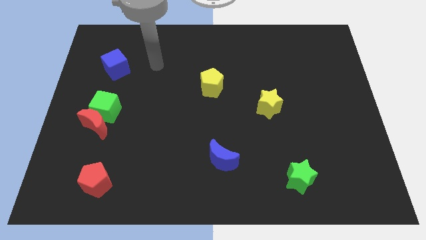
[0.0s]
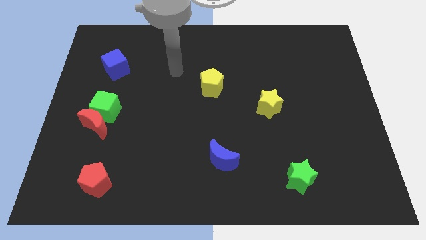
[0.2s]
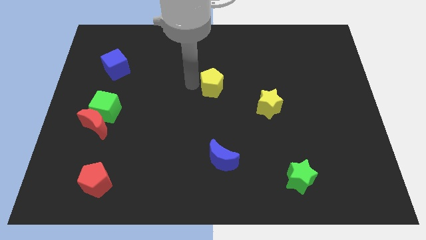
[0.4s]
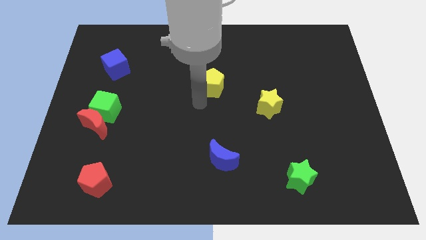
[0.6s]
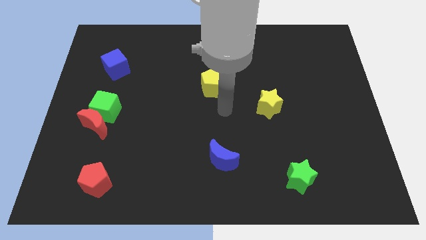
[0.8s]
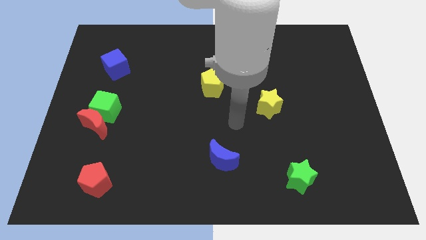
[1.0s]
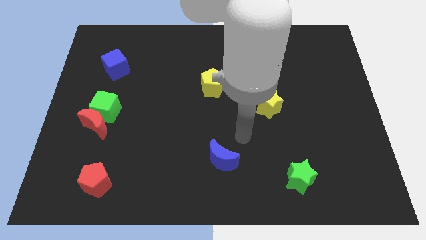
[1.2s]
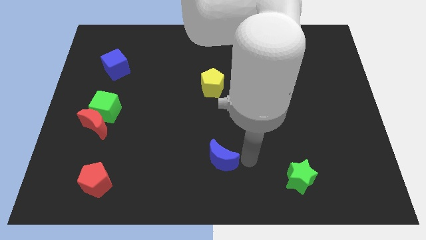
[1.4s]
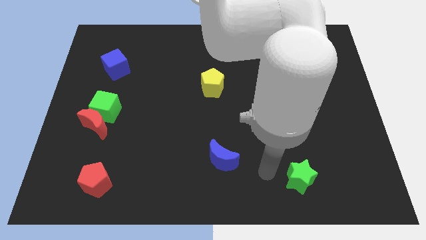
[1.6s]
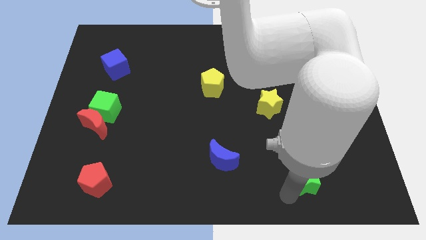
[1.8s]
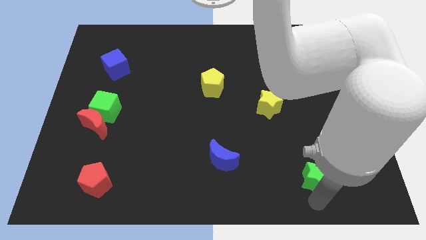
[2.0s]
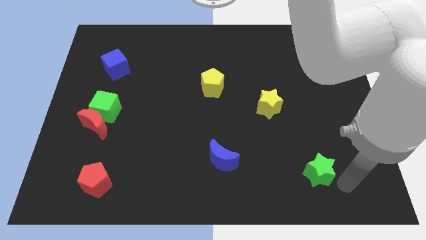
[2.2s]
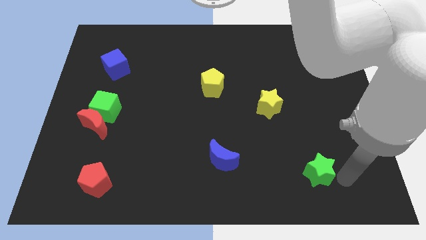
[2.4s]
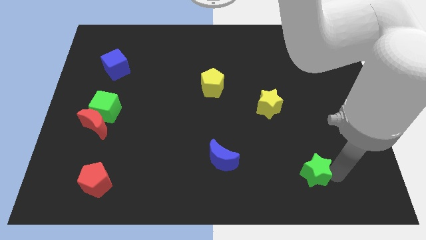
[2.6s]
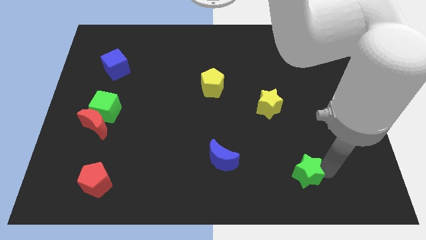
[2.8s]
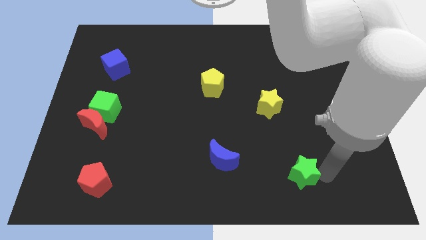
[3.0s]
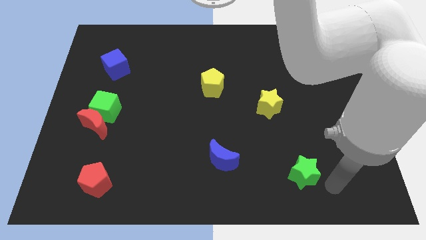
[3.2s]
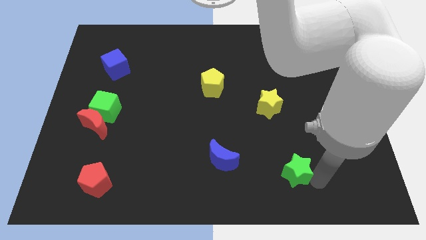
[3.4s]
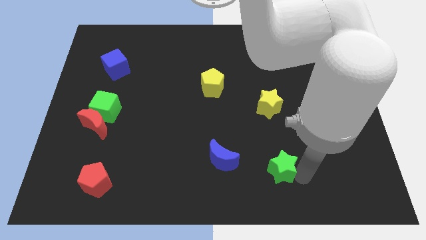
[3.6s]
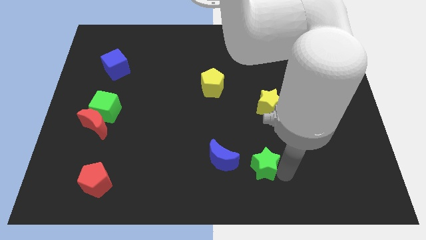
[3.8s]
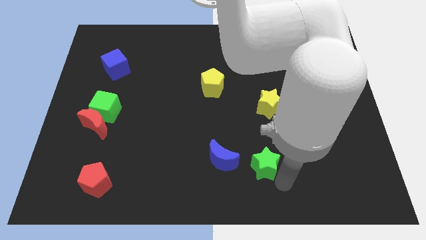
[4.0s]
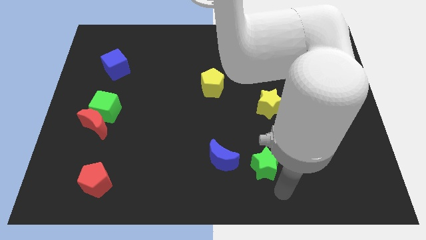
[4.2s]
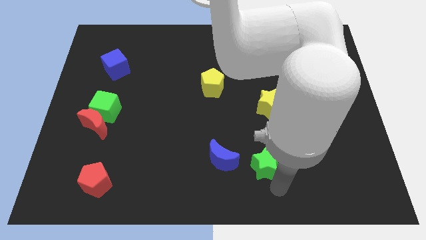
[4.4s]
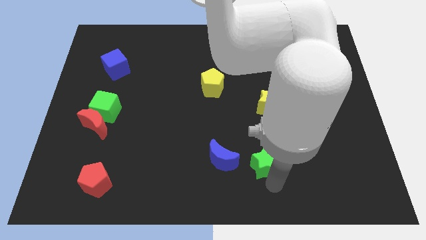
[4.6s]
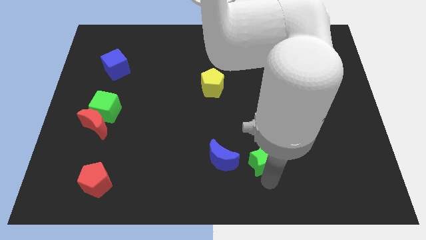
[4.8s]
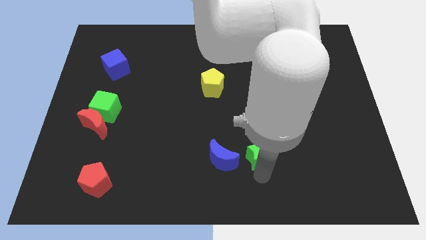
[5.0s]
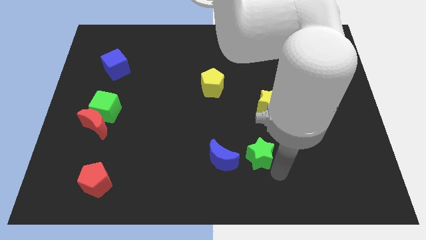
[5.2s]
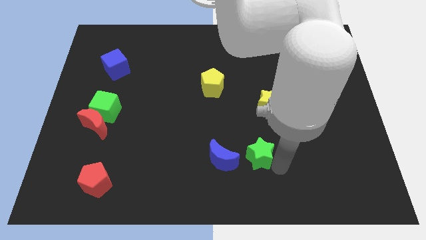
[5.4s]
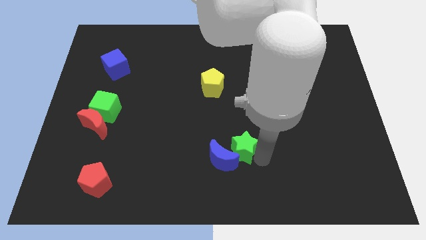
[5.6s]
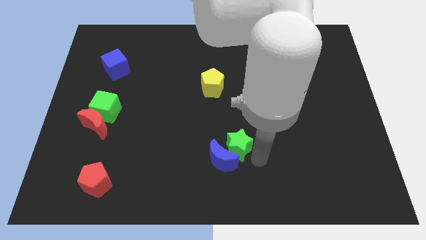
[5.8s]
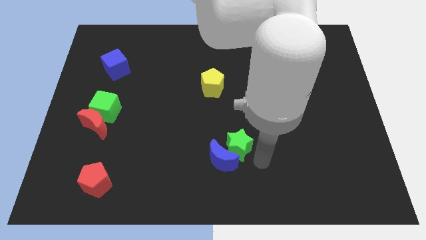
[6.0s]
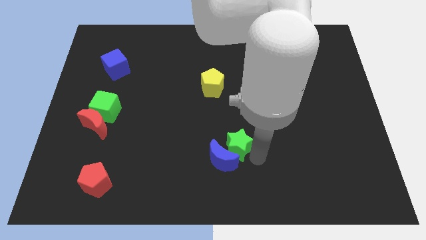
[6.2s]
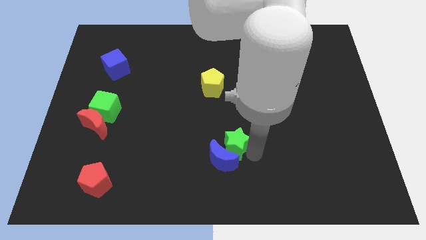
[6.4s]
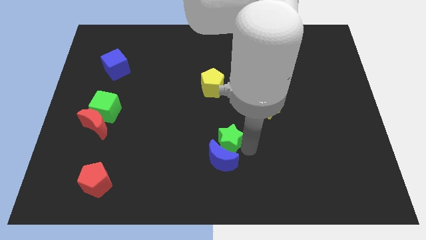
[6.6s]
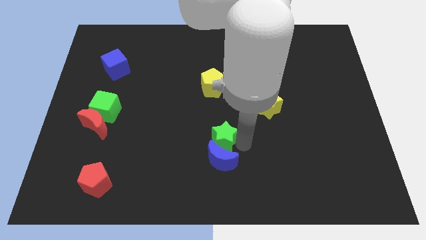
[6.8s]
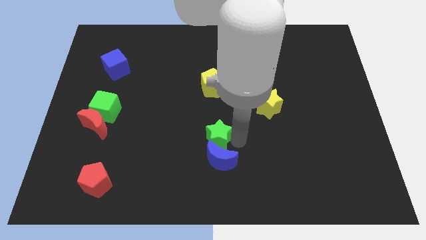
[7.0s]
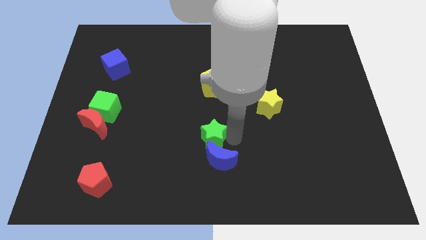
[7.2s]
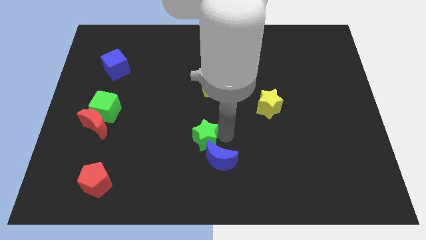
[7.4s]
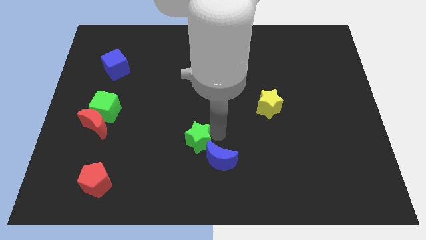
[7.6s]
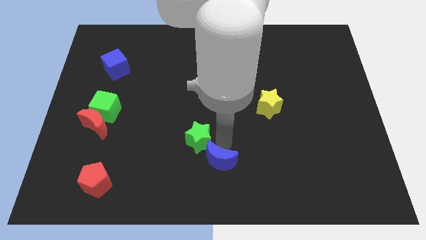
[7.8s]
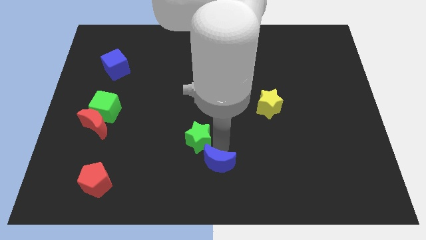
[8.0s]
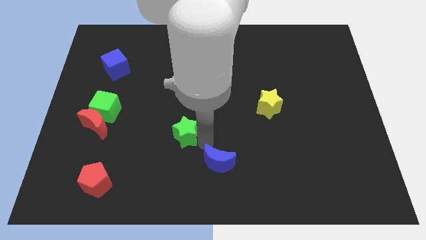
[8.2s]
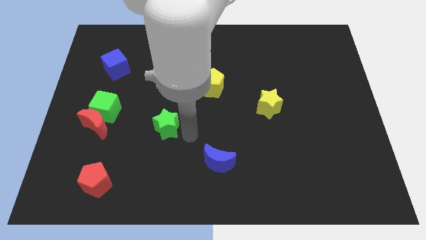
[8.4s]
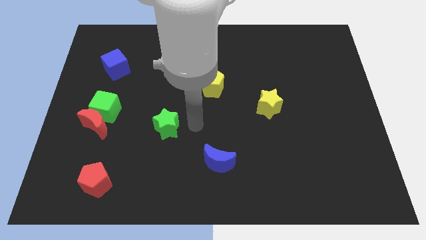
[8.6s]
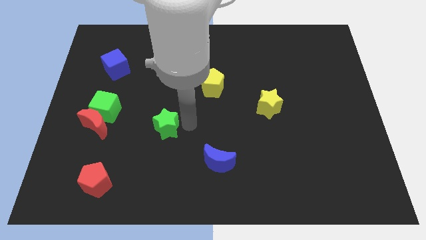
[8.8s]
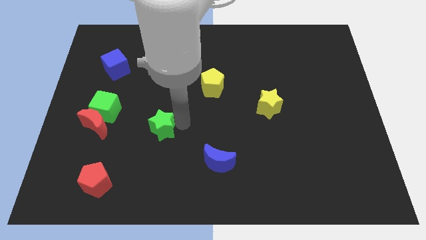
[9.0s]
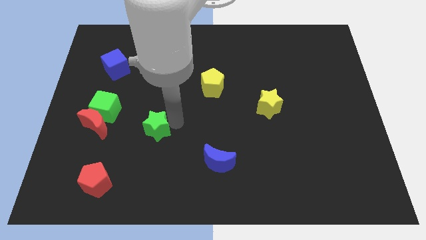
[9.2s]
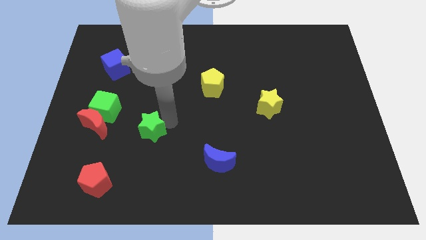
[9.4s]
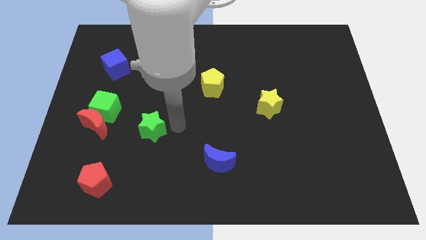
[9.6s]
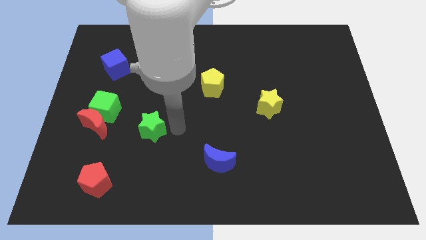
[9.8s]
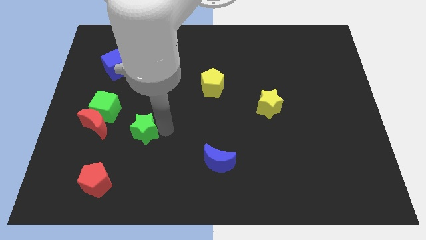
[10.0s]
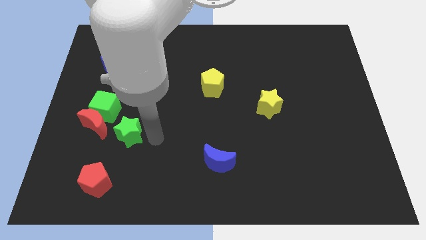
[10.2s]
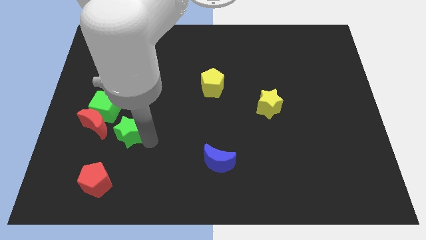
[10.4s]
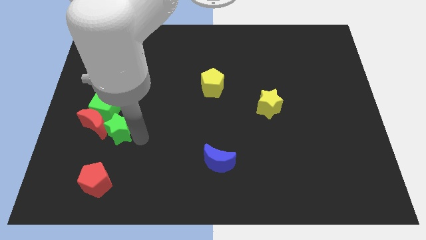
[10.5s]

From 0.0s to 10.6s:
slide the green star to the red moon

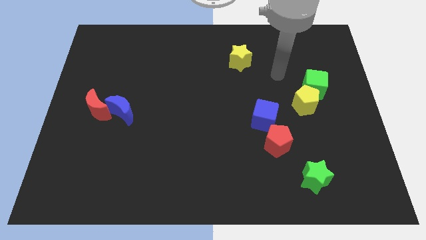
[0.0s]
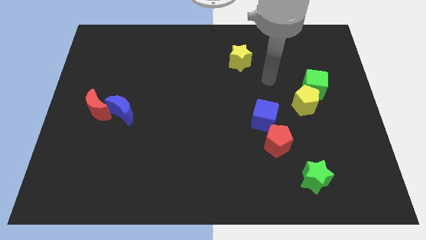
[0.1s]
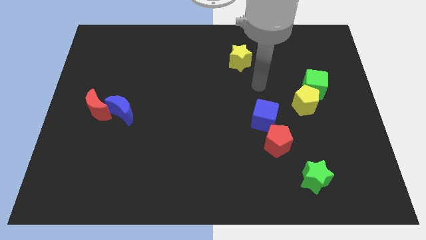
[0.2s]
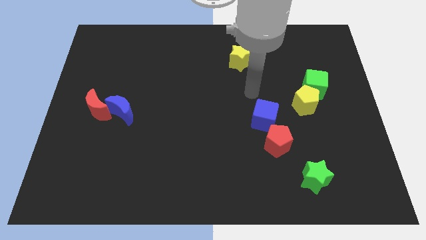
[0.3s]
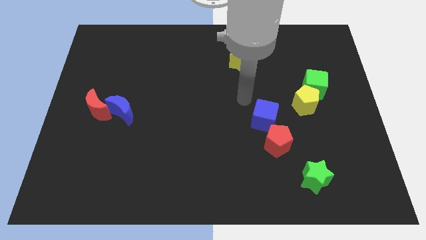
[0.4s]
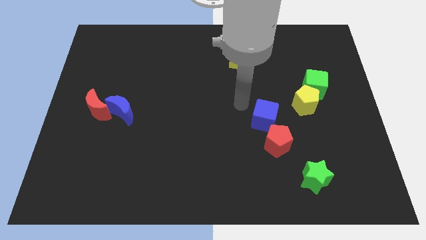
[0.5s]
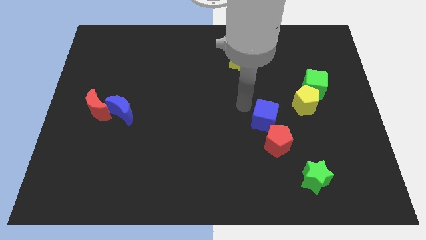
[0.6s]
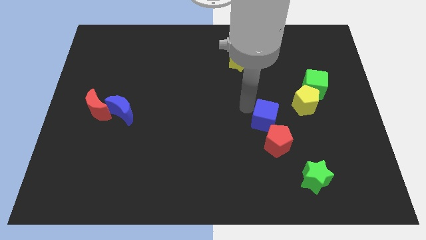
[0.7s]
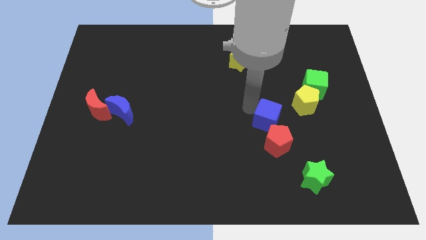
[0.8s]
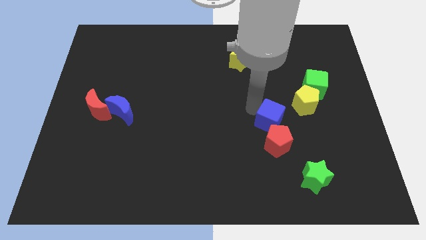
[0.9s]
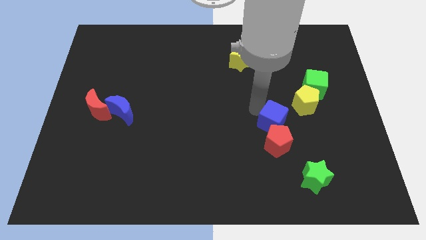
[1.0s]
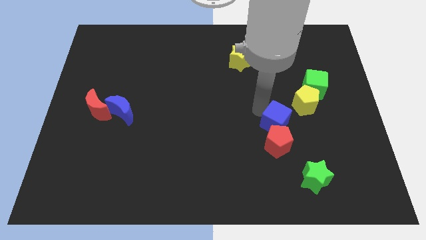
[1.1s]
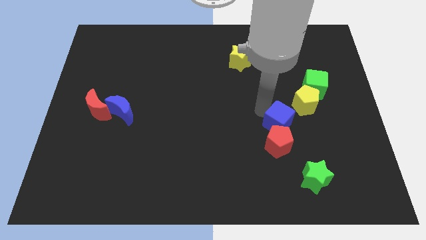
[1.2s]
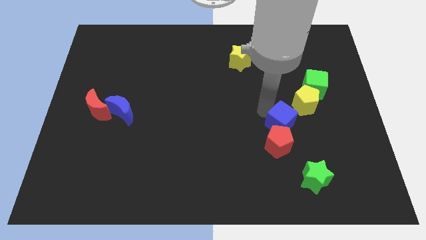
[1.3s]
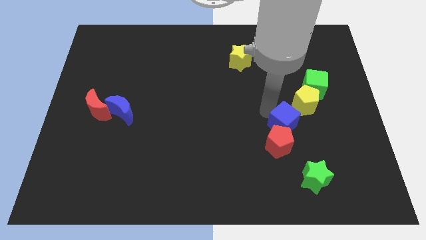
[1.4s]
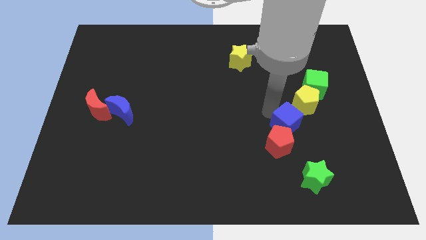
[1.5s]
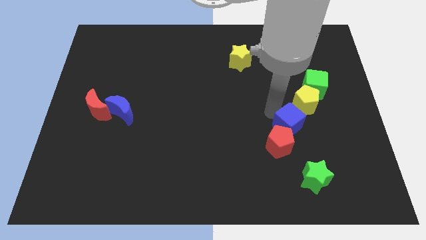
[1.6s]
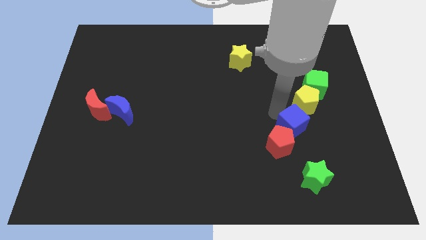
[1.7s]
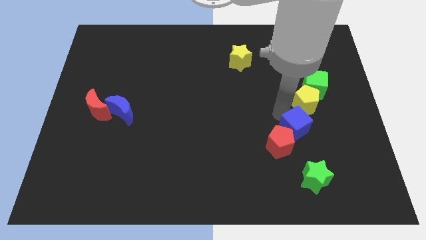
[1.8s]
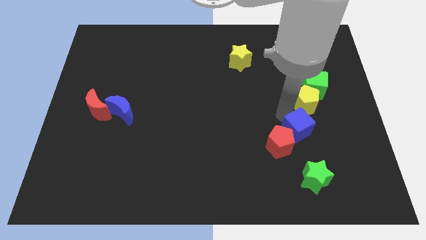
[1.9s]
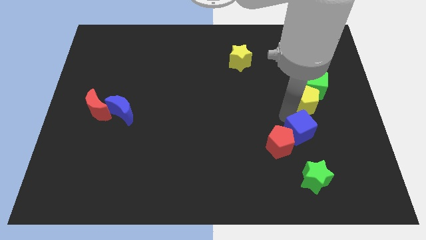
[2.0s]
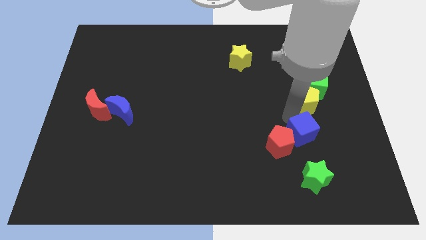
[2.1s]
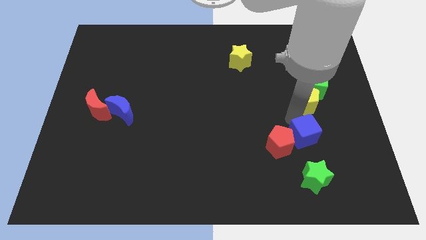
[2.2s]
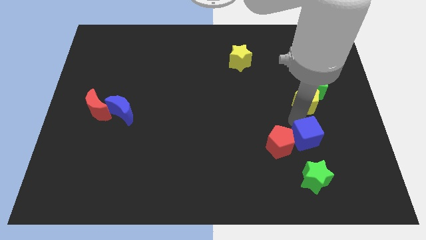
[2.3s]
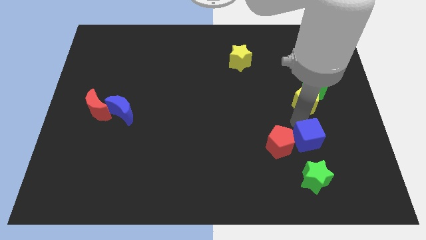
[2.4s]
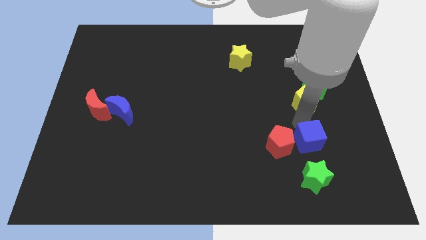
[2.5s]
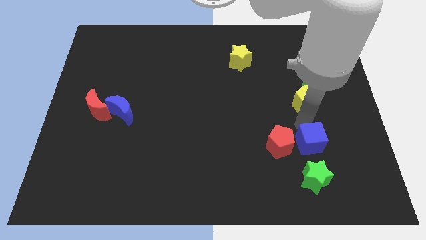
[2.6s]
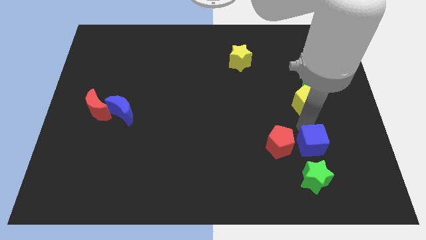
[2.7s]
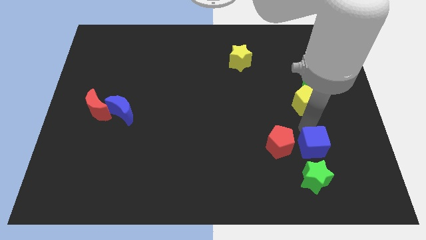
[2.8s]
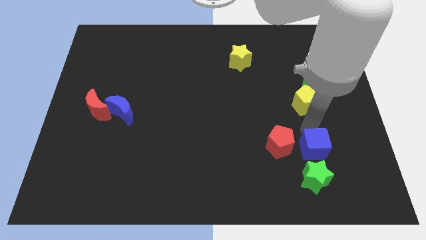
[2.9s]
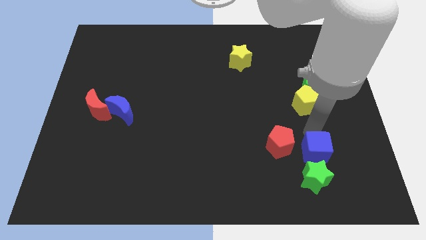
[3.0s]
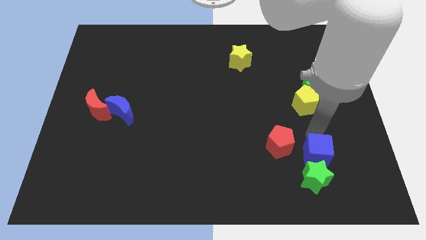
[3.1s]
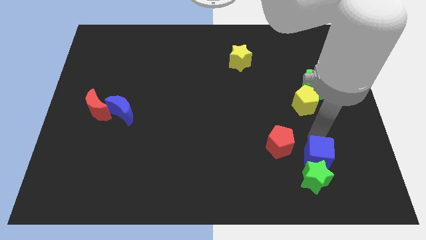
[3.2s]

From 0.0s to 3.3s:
slide the blue cube next to the green star
